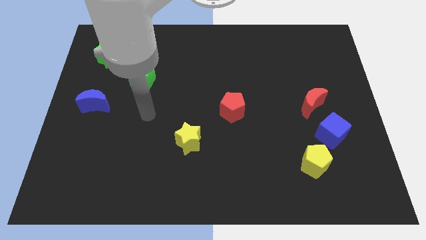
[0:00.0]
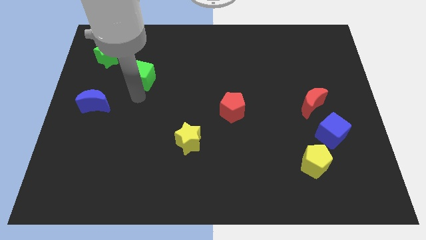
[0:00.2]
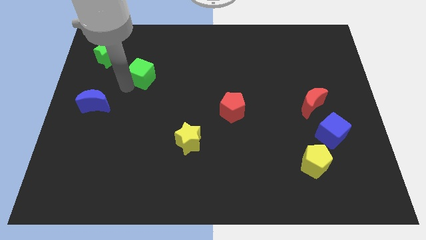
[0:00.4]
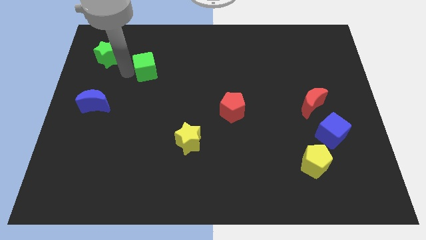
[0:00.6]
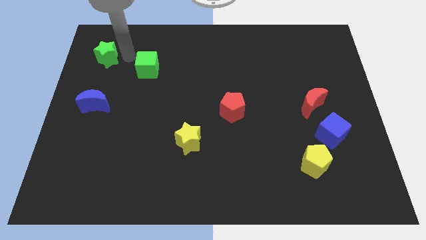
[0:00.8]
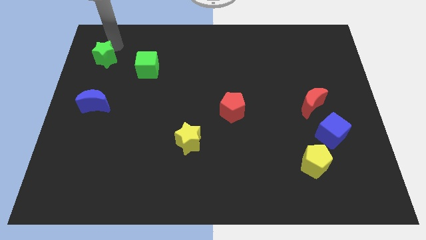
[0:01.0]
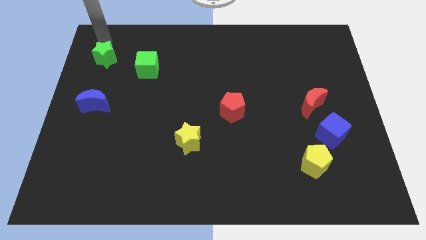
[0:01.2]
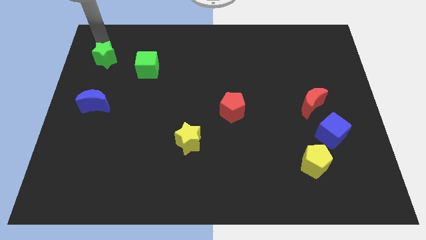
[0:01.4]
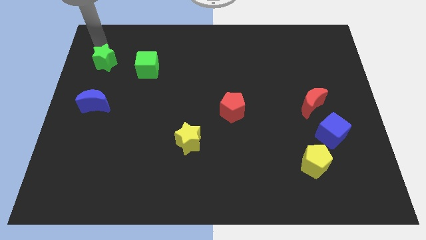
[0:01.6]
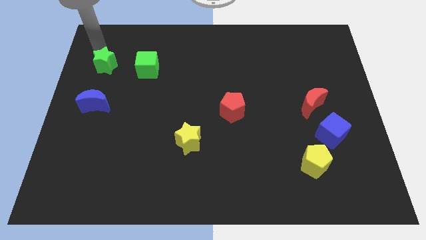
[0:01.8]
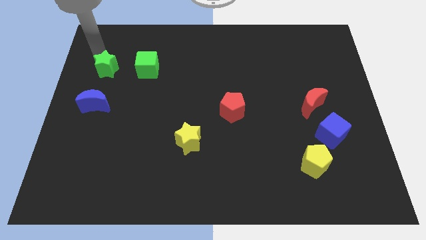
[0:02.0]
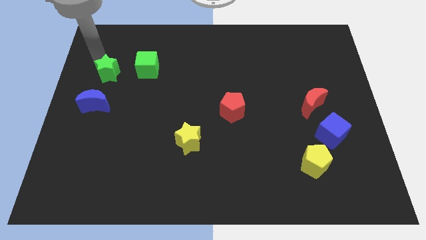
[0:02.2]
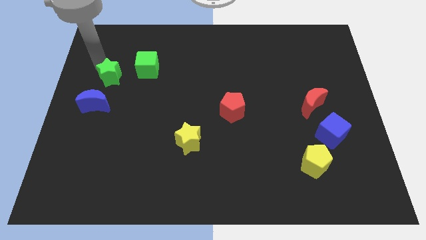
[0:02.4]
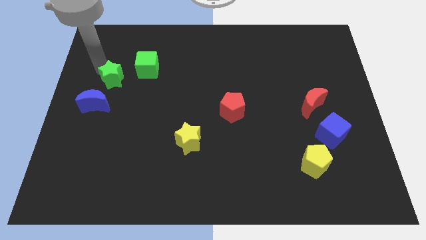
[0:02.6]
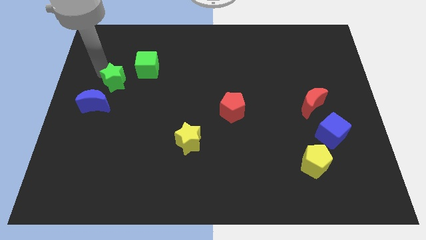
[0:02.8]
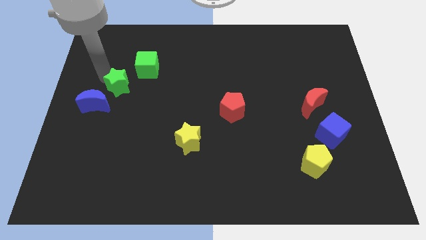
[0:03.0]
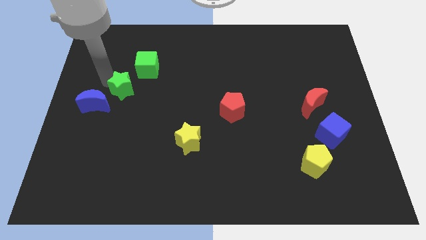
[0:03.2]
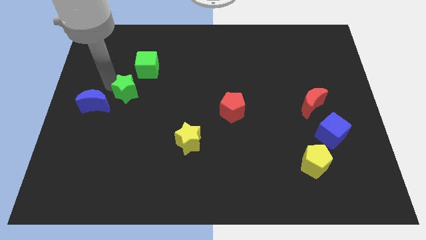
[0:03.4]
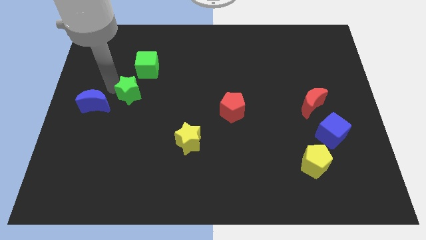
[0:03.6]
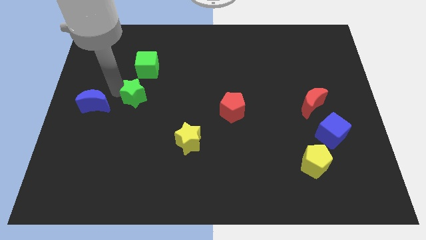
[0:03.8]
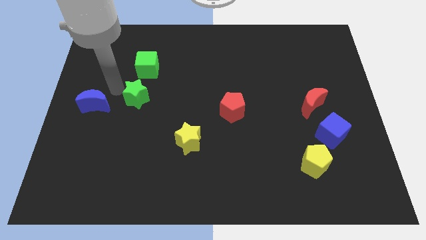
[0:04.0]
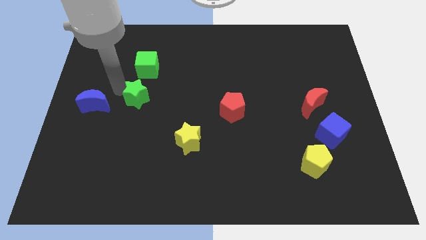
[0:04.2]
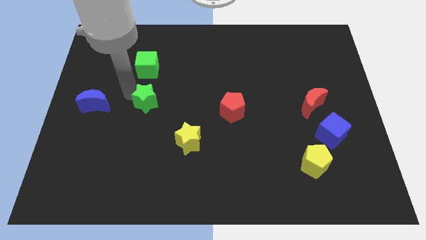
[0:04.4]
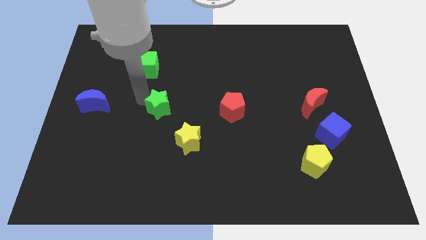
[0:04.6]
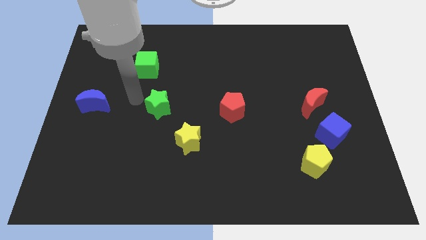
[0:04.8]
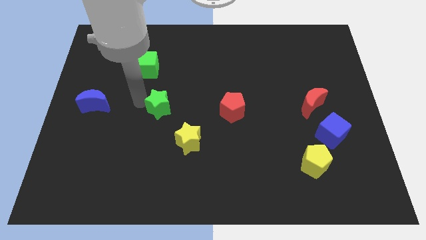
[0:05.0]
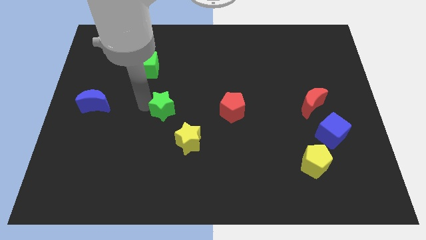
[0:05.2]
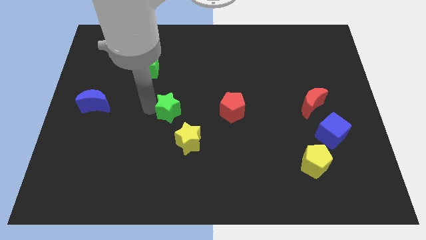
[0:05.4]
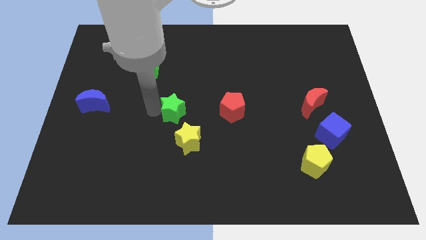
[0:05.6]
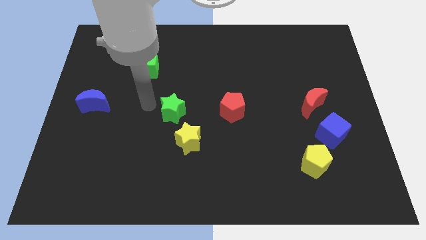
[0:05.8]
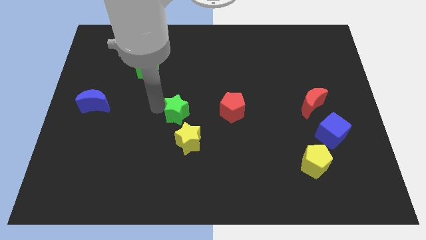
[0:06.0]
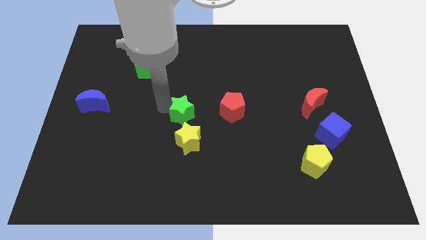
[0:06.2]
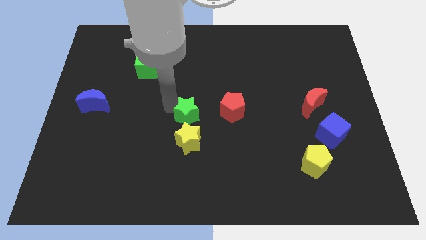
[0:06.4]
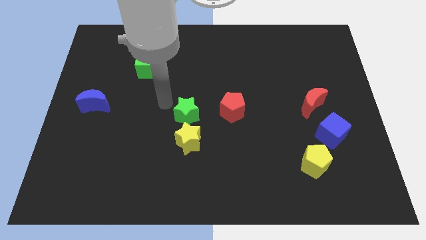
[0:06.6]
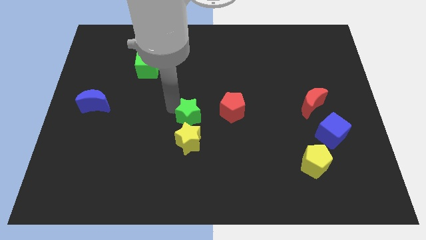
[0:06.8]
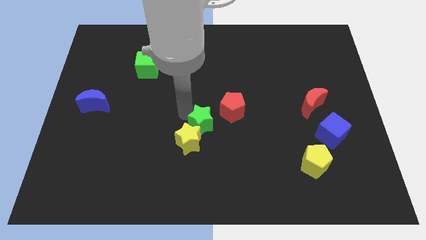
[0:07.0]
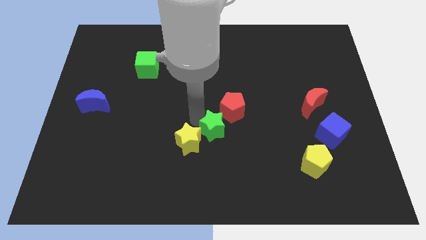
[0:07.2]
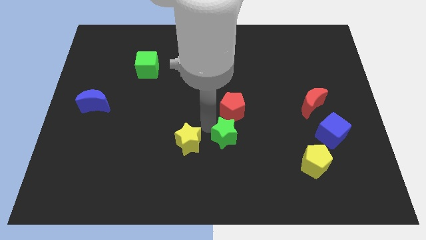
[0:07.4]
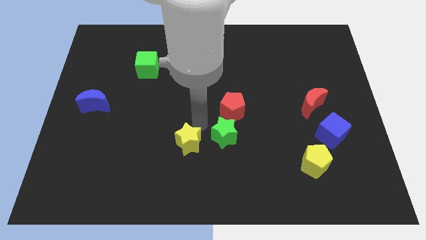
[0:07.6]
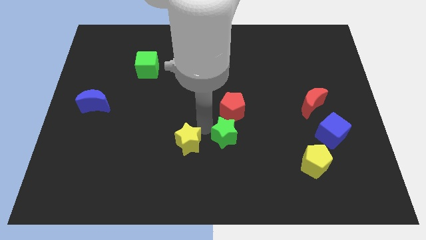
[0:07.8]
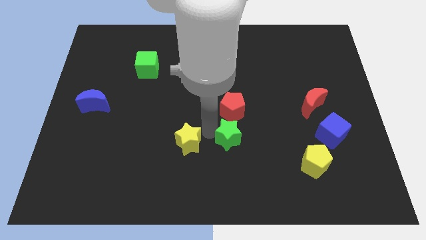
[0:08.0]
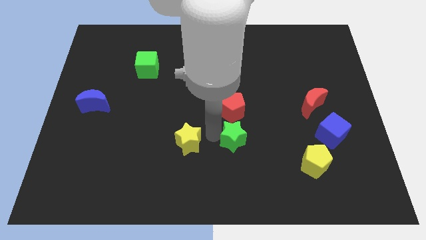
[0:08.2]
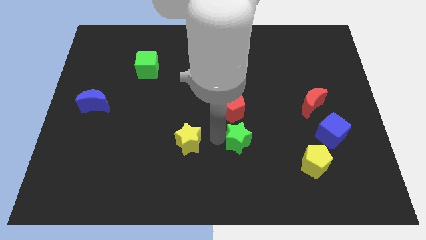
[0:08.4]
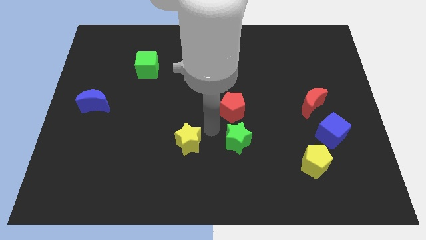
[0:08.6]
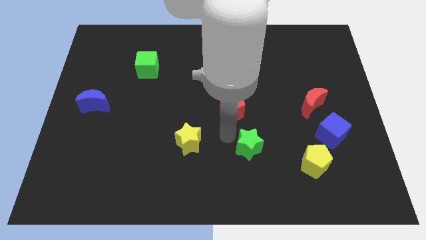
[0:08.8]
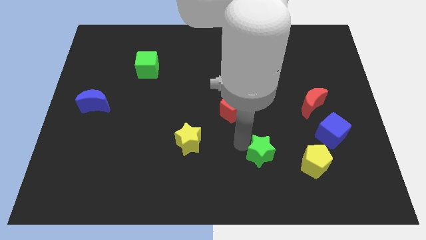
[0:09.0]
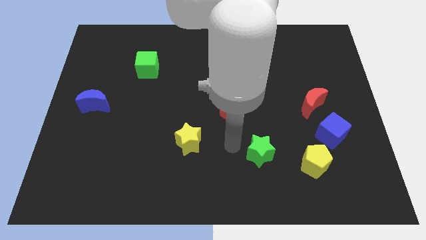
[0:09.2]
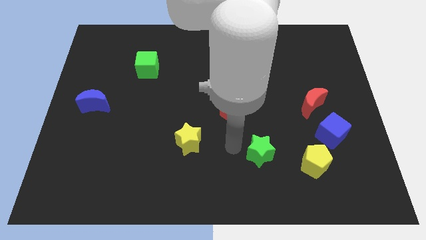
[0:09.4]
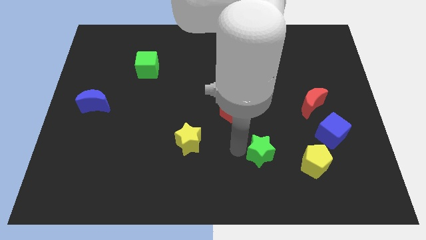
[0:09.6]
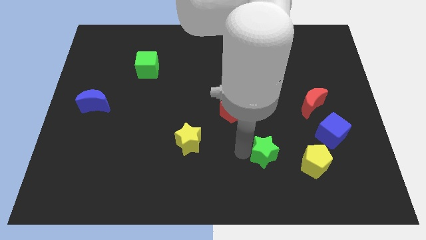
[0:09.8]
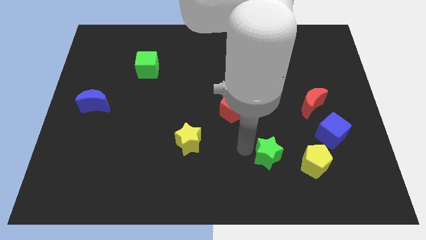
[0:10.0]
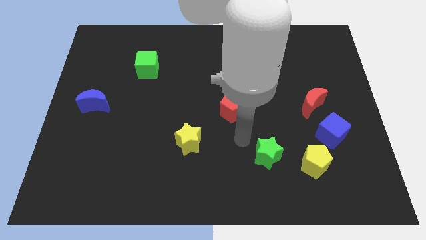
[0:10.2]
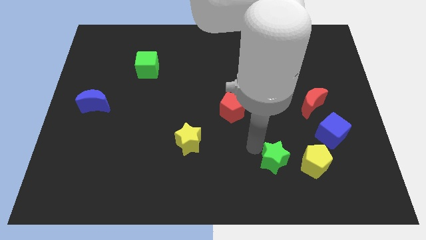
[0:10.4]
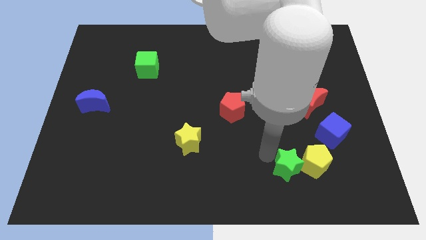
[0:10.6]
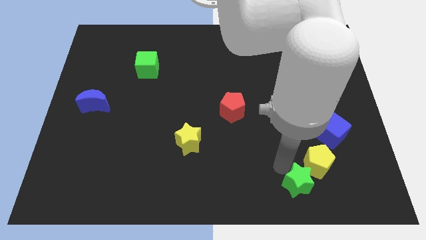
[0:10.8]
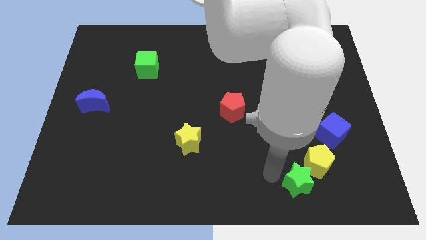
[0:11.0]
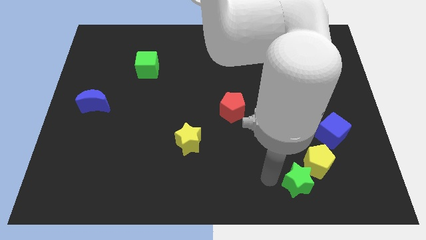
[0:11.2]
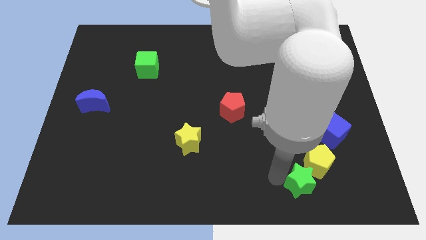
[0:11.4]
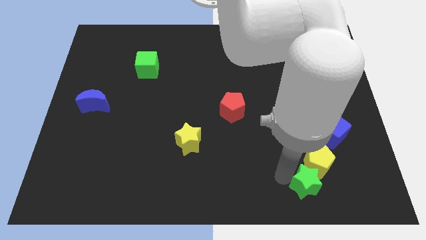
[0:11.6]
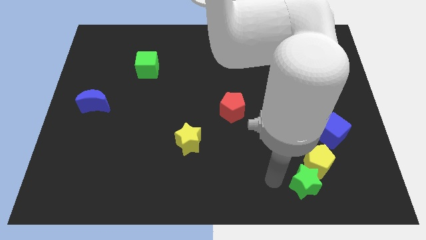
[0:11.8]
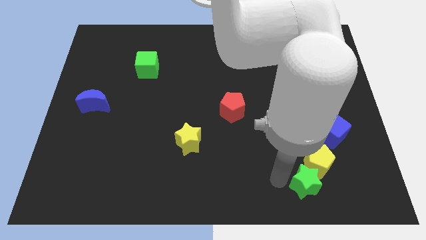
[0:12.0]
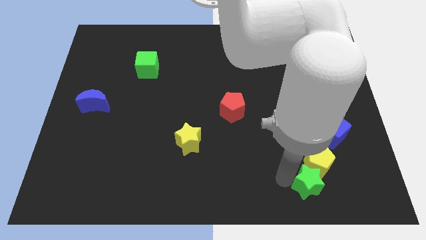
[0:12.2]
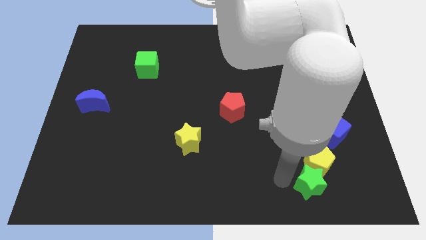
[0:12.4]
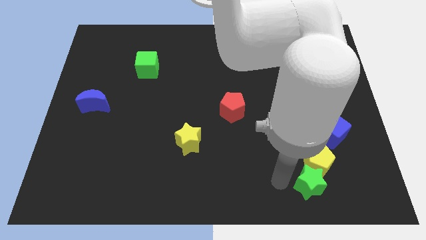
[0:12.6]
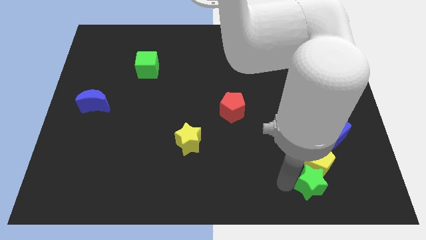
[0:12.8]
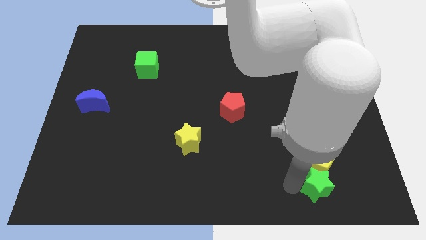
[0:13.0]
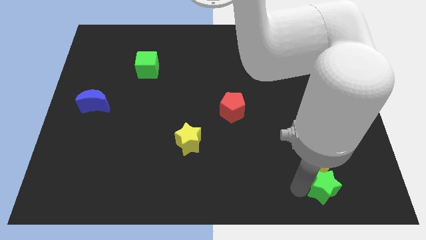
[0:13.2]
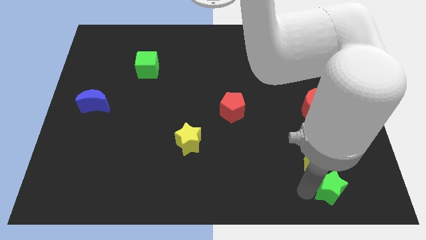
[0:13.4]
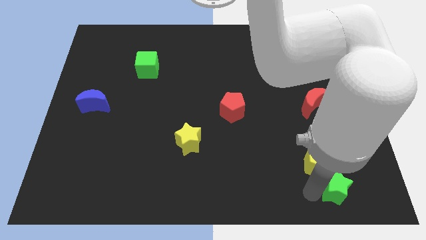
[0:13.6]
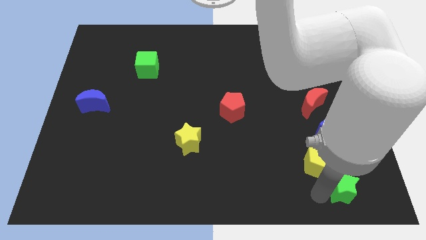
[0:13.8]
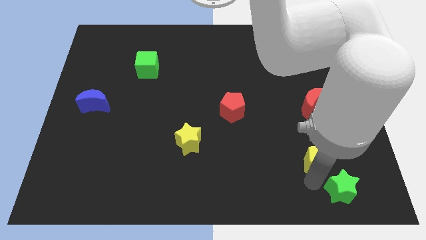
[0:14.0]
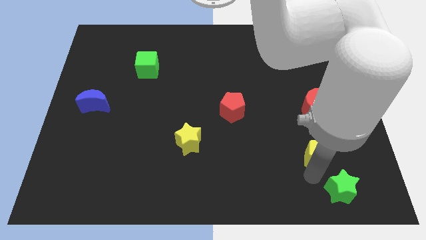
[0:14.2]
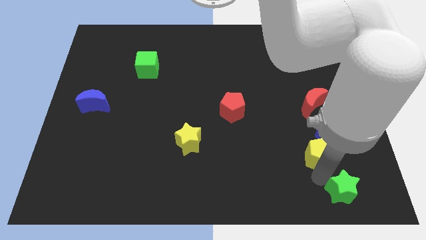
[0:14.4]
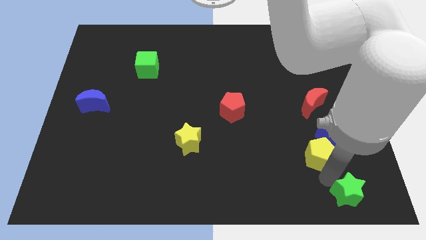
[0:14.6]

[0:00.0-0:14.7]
push the green star to the bottom right of the board

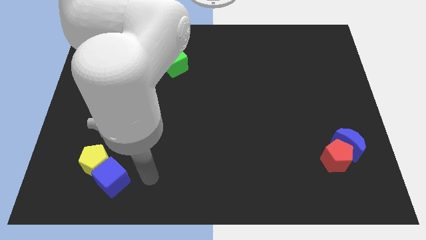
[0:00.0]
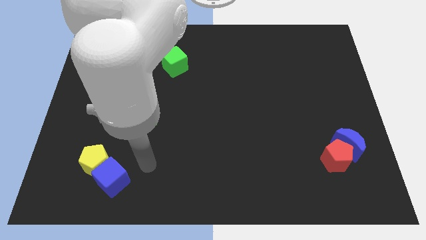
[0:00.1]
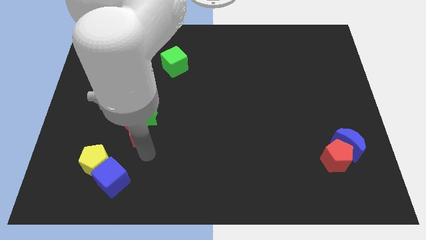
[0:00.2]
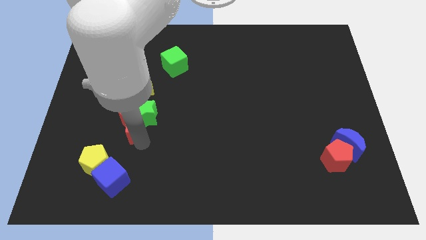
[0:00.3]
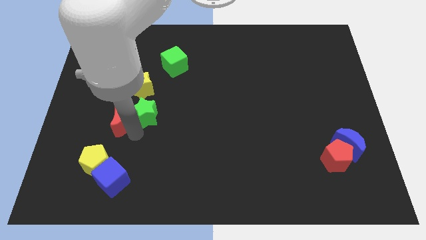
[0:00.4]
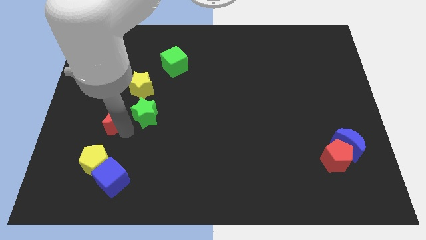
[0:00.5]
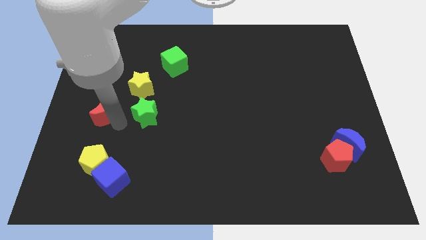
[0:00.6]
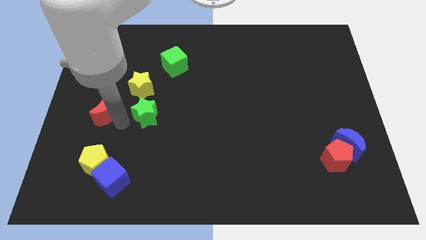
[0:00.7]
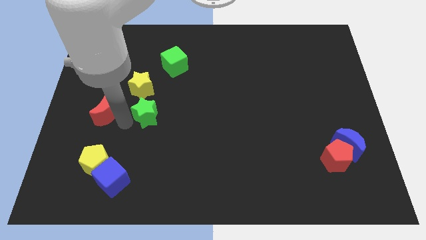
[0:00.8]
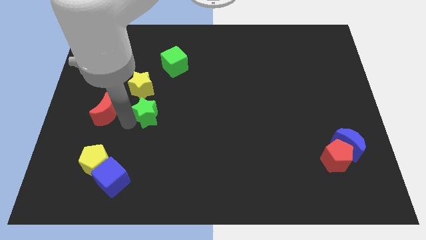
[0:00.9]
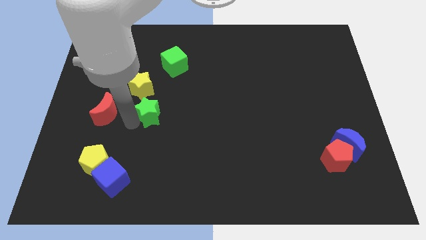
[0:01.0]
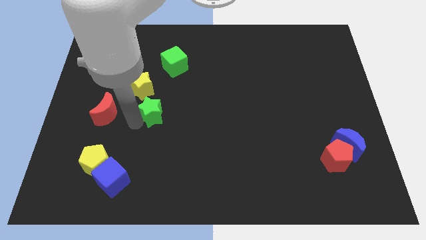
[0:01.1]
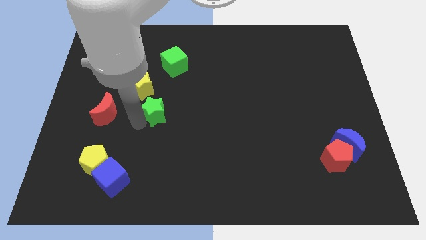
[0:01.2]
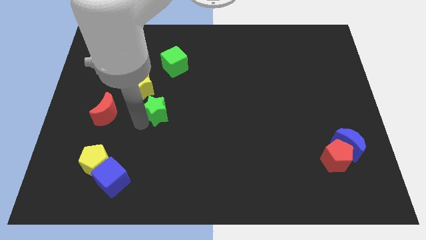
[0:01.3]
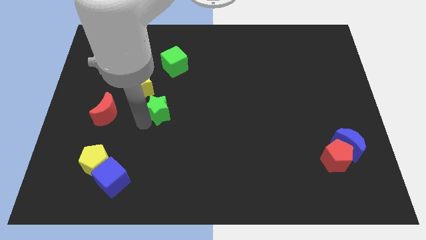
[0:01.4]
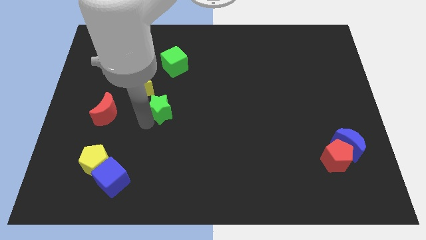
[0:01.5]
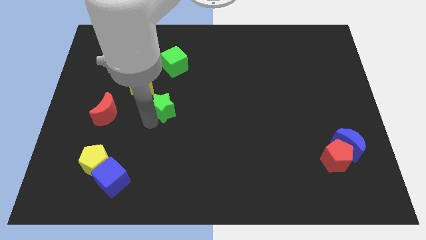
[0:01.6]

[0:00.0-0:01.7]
move the green star to the center
